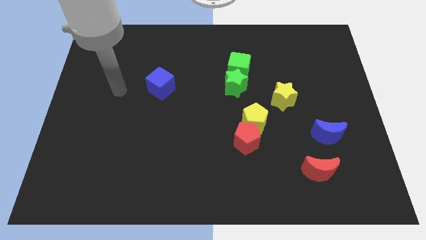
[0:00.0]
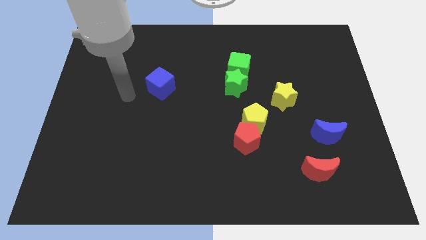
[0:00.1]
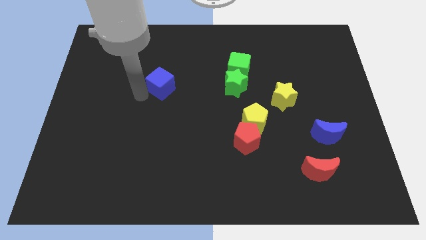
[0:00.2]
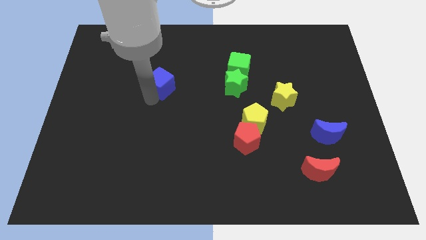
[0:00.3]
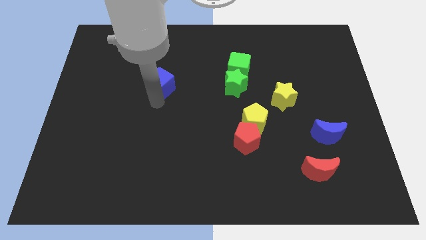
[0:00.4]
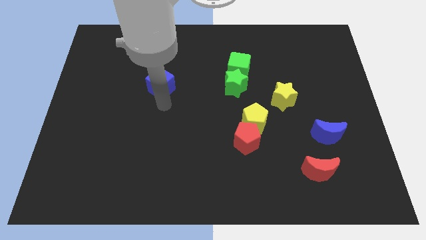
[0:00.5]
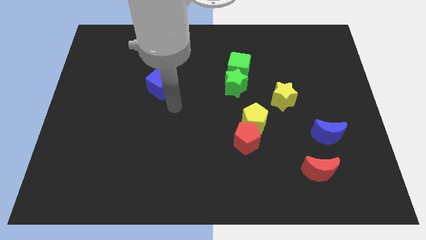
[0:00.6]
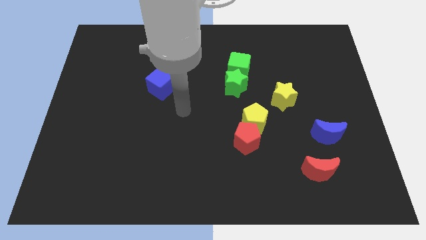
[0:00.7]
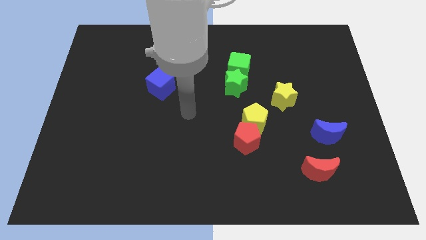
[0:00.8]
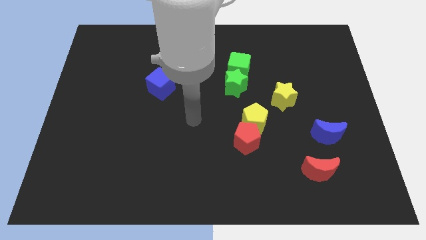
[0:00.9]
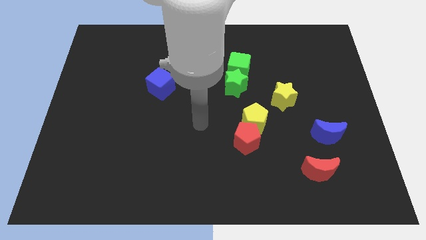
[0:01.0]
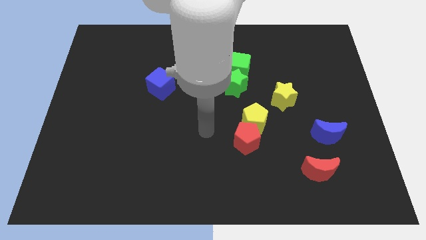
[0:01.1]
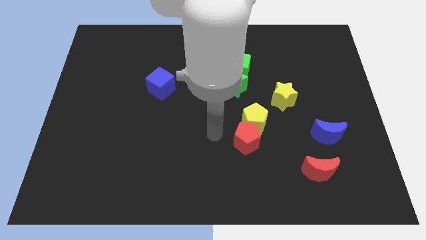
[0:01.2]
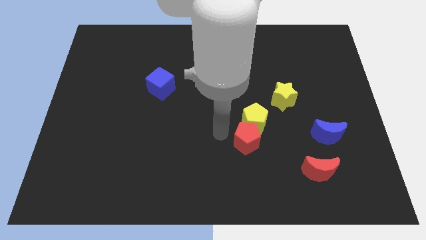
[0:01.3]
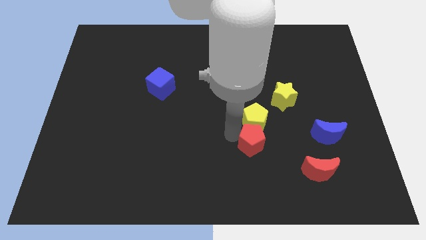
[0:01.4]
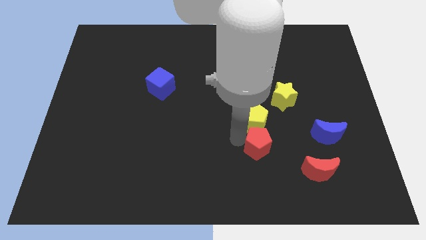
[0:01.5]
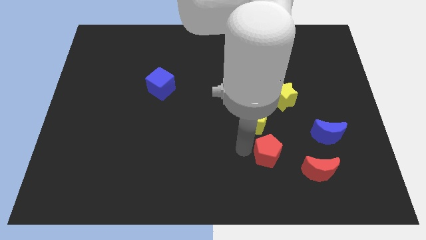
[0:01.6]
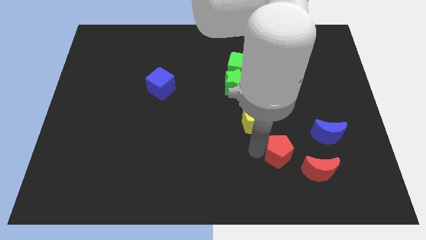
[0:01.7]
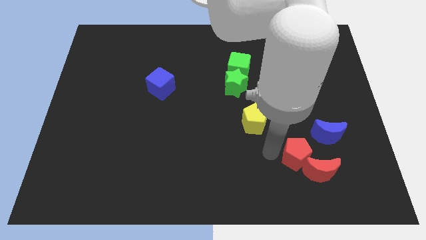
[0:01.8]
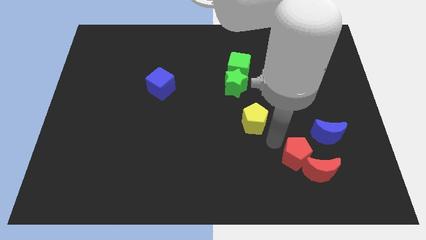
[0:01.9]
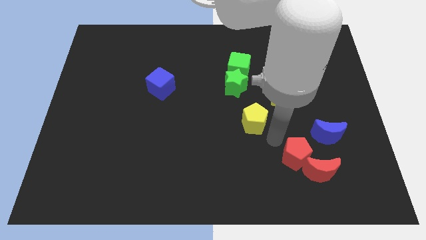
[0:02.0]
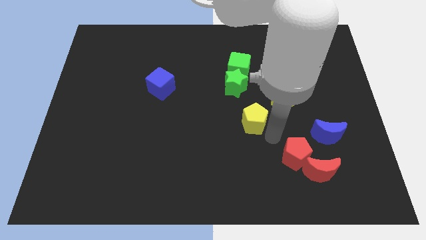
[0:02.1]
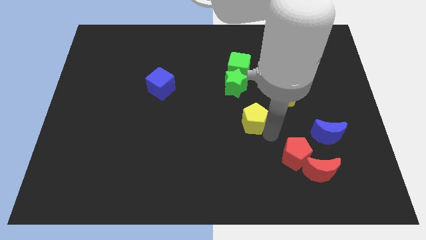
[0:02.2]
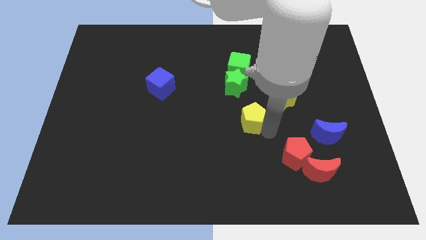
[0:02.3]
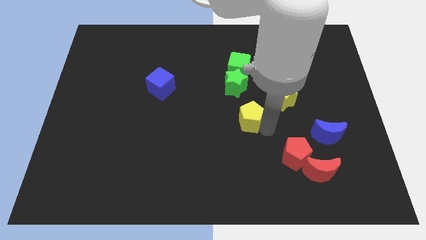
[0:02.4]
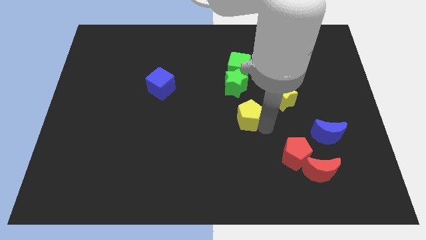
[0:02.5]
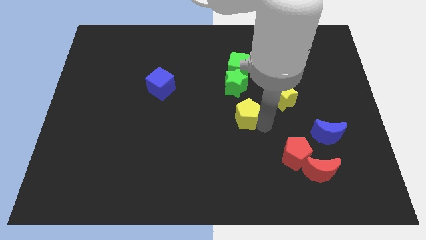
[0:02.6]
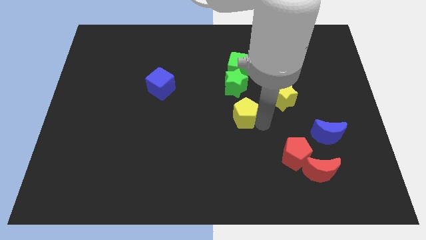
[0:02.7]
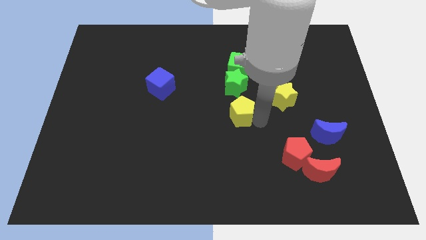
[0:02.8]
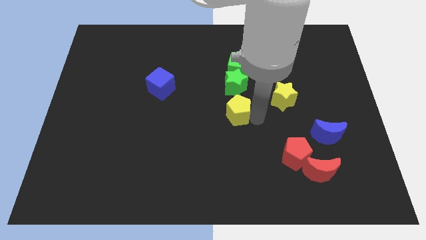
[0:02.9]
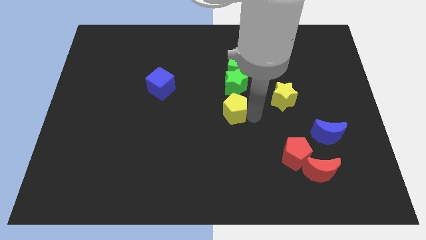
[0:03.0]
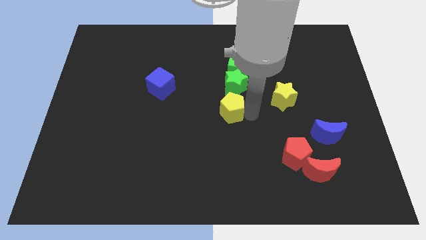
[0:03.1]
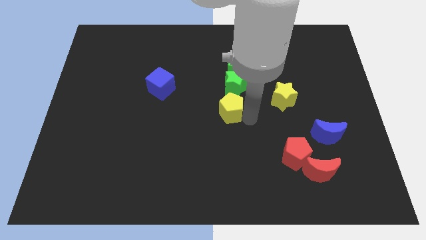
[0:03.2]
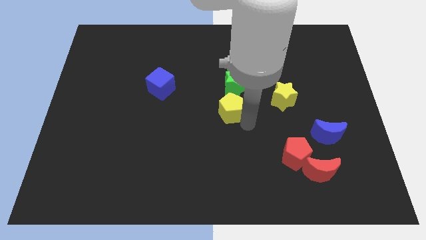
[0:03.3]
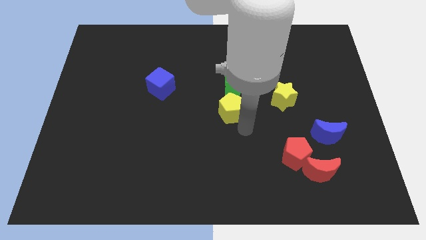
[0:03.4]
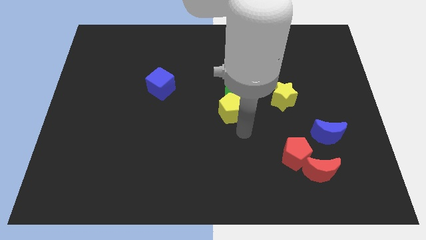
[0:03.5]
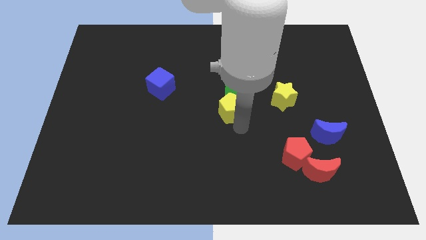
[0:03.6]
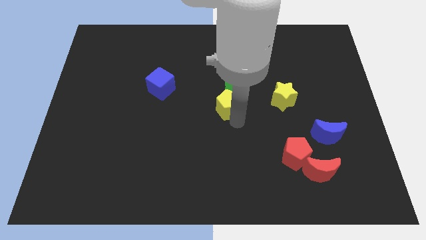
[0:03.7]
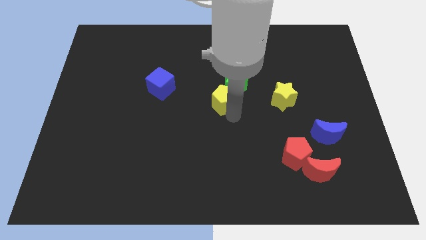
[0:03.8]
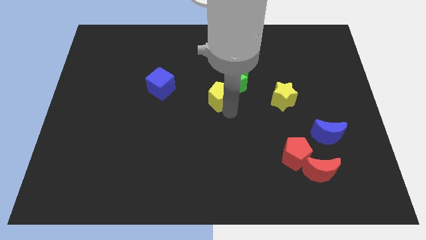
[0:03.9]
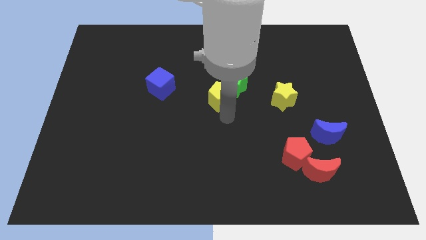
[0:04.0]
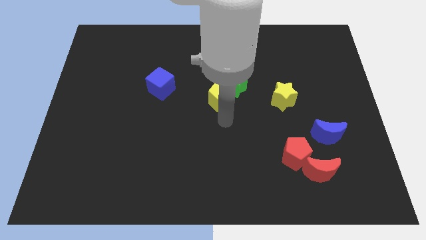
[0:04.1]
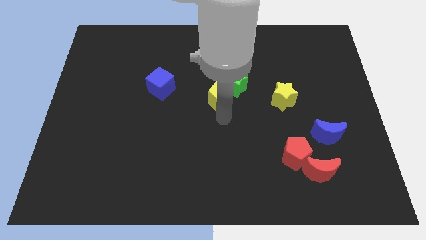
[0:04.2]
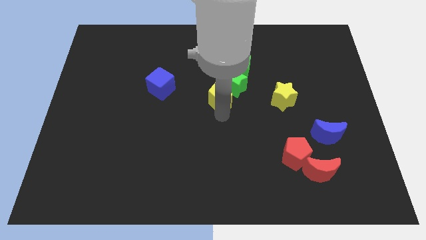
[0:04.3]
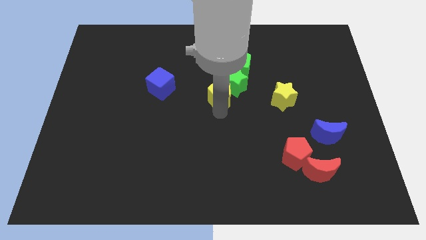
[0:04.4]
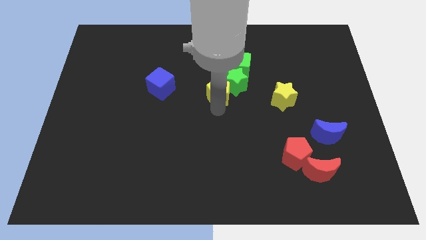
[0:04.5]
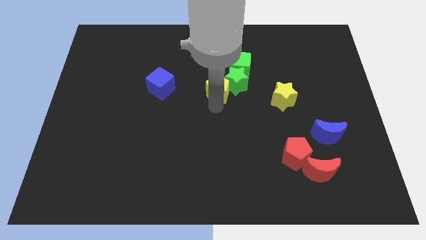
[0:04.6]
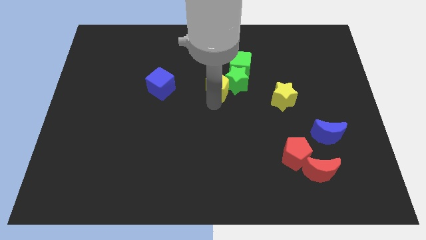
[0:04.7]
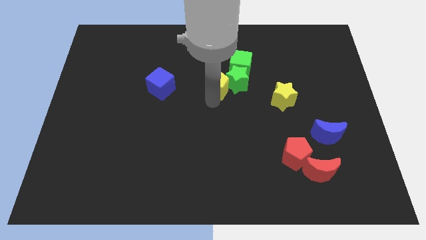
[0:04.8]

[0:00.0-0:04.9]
put the yellow pentagon diagonally up and to the left of the green star

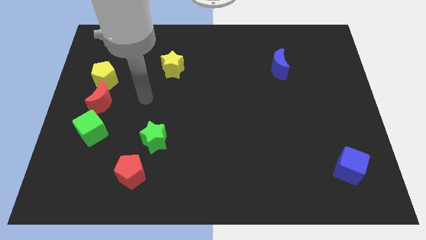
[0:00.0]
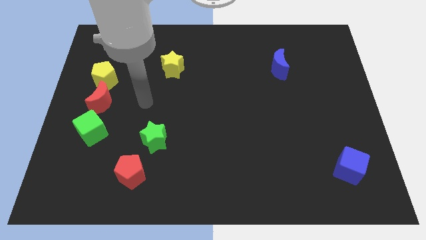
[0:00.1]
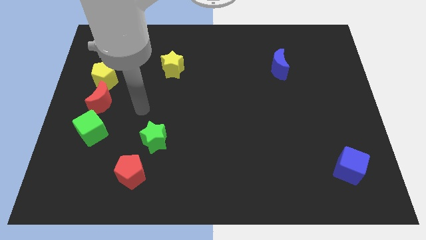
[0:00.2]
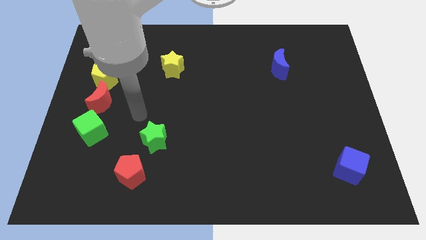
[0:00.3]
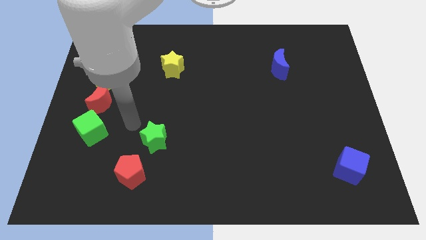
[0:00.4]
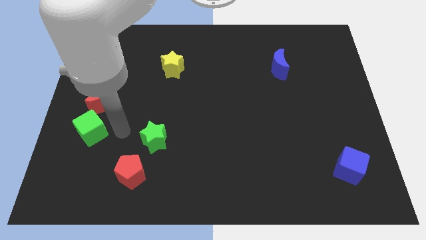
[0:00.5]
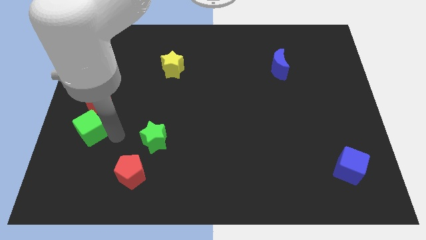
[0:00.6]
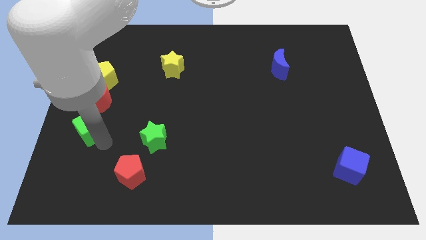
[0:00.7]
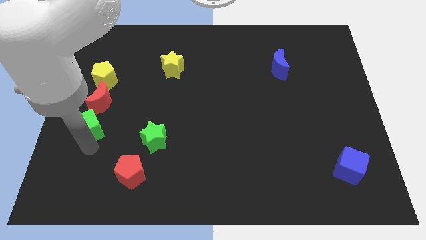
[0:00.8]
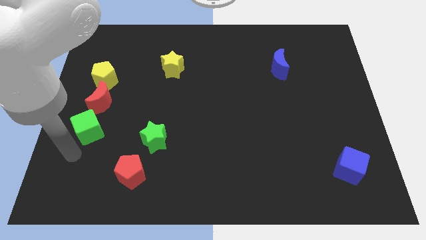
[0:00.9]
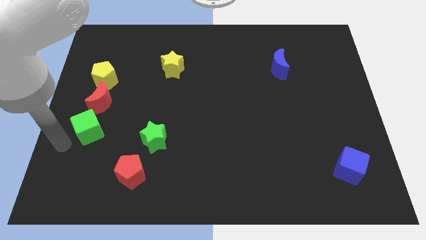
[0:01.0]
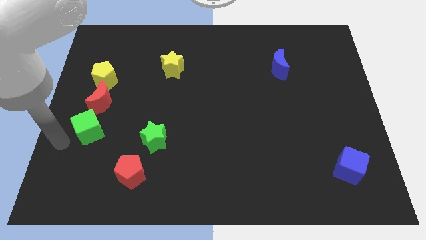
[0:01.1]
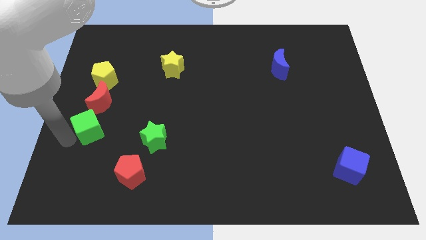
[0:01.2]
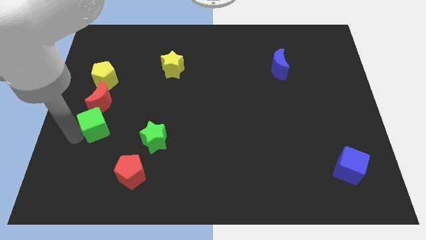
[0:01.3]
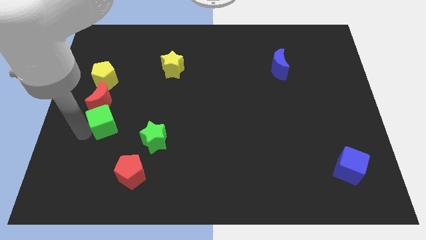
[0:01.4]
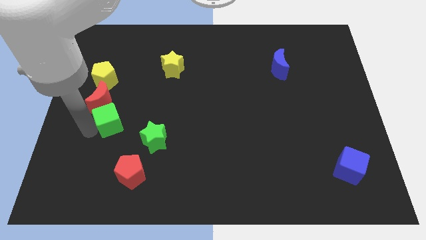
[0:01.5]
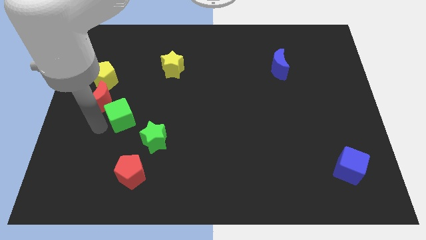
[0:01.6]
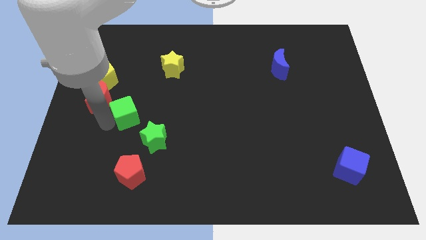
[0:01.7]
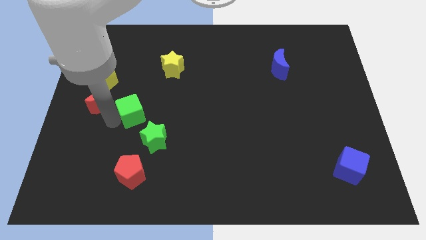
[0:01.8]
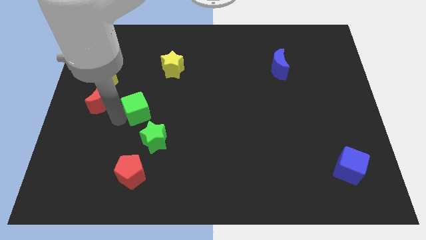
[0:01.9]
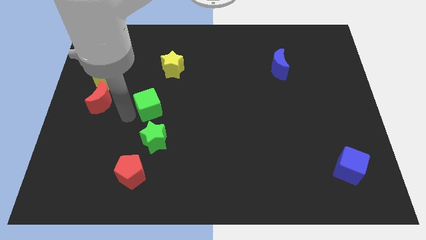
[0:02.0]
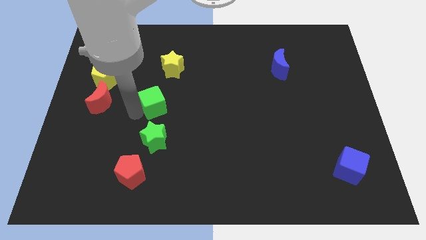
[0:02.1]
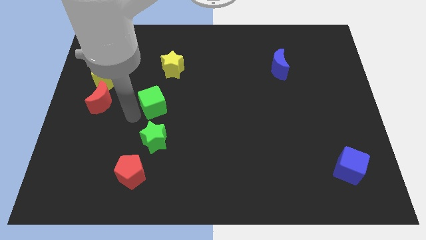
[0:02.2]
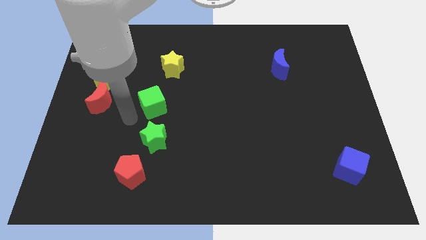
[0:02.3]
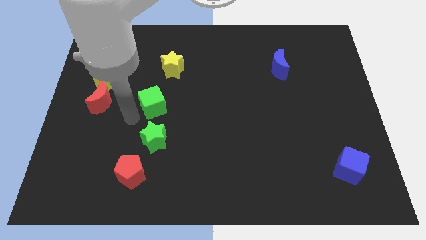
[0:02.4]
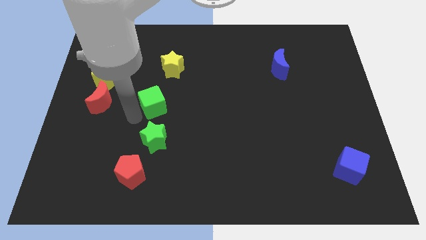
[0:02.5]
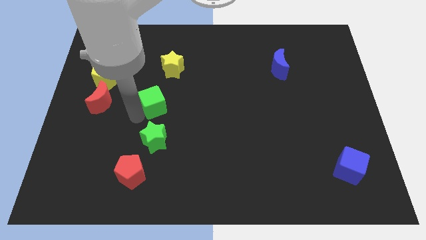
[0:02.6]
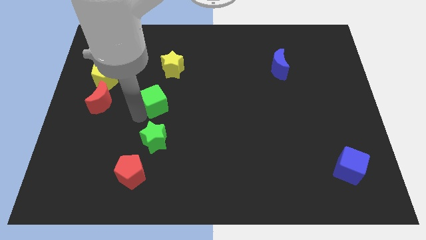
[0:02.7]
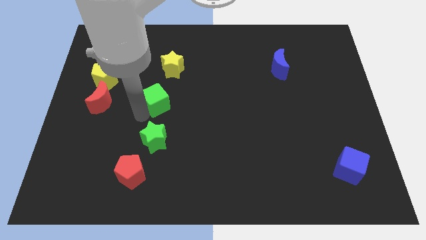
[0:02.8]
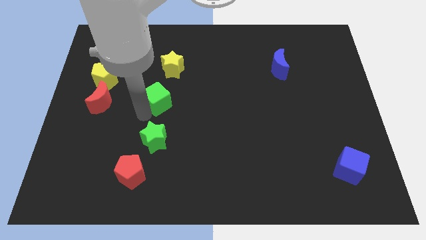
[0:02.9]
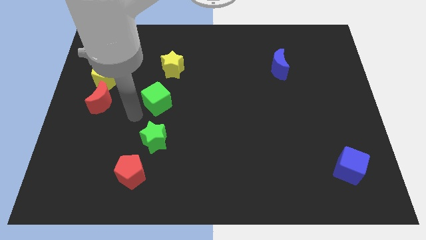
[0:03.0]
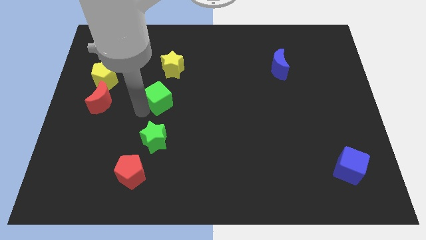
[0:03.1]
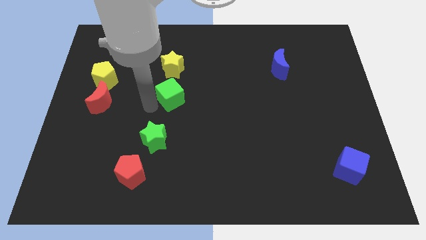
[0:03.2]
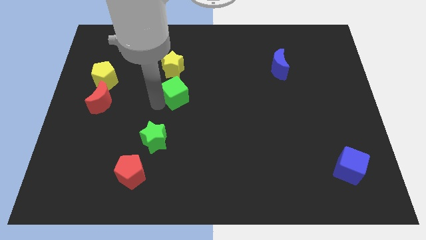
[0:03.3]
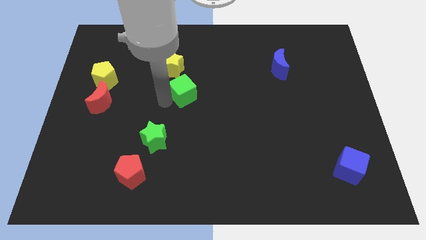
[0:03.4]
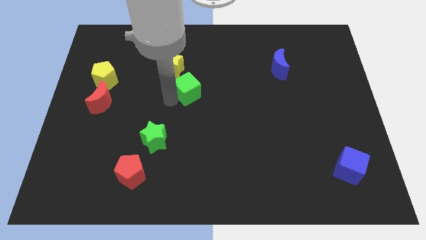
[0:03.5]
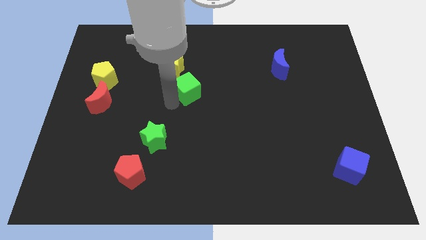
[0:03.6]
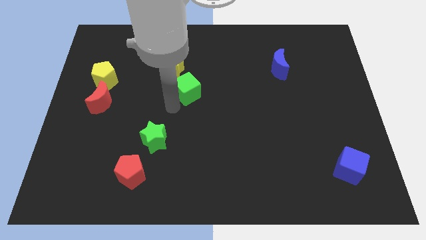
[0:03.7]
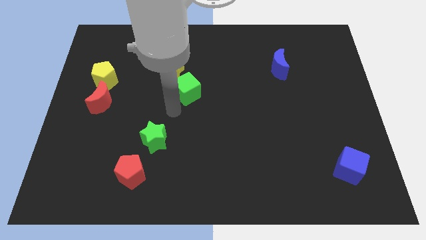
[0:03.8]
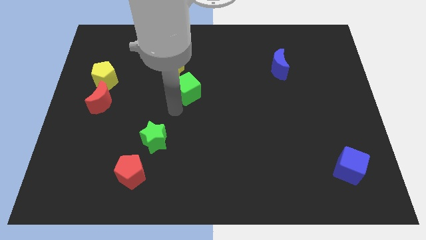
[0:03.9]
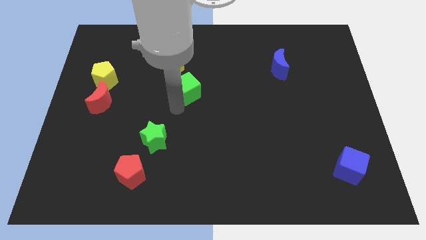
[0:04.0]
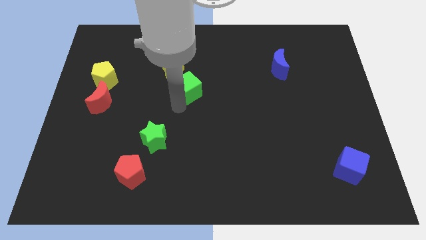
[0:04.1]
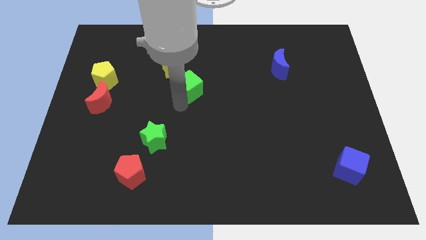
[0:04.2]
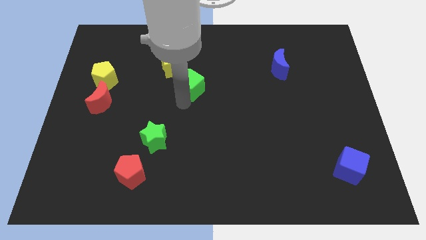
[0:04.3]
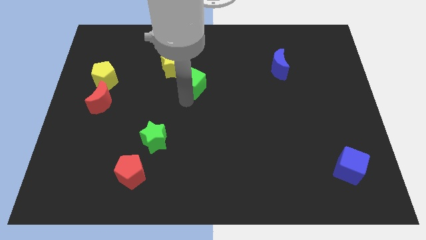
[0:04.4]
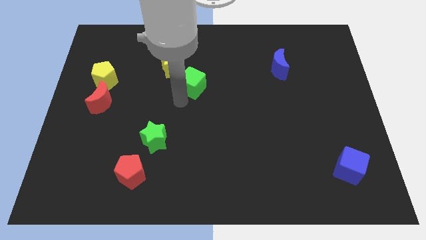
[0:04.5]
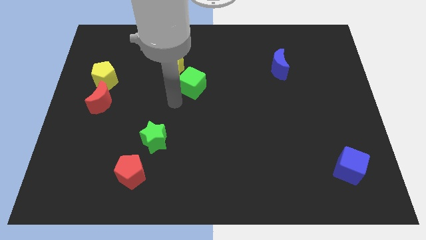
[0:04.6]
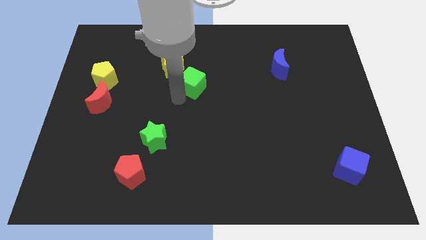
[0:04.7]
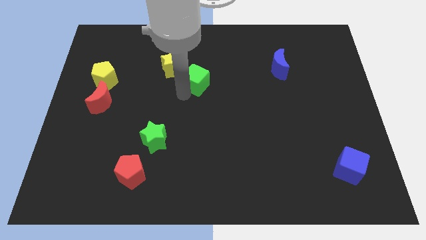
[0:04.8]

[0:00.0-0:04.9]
push the green cube to the right of the yellow star
